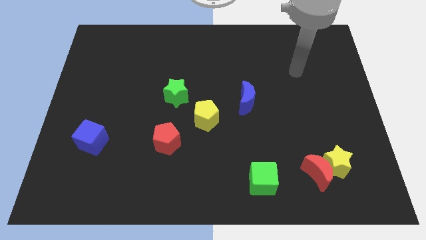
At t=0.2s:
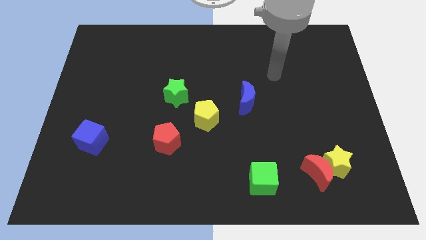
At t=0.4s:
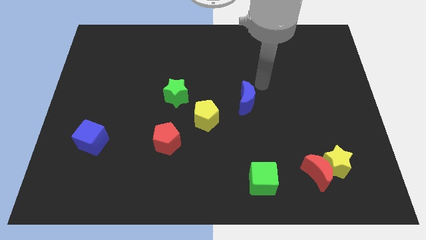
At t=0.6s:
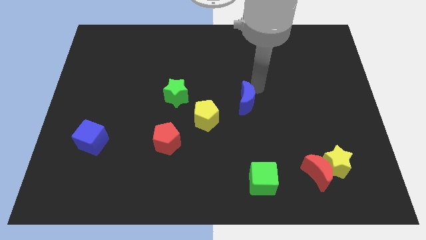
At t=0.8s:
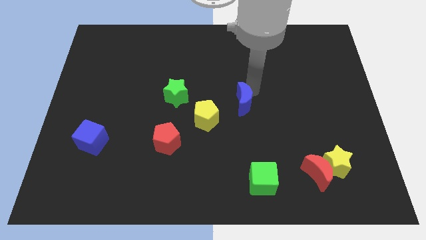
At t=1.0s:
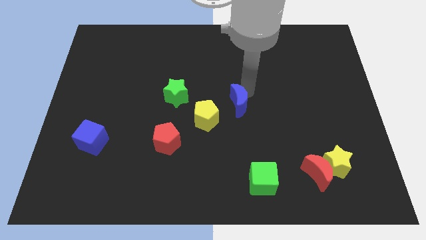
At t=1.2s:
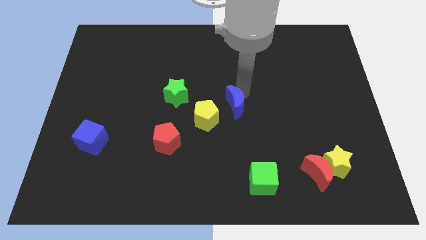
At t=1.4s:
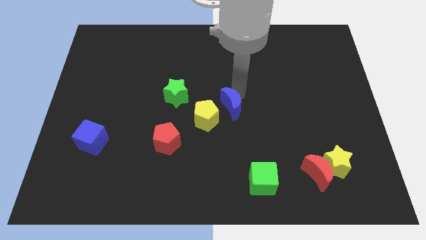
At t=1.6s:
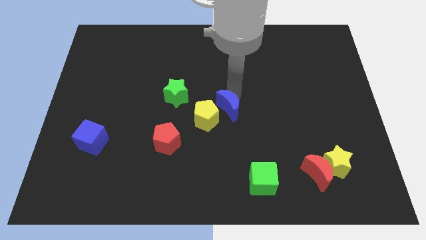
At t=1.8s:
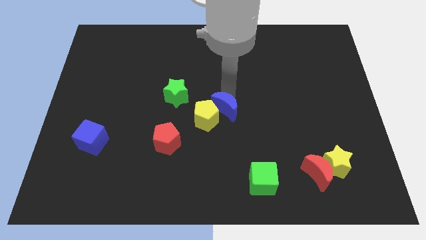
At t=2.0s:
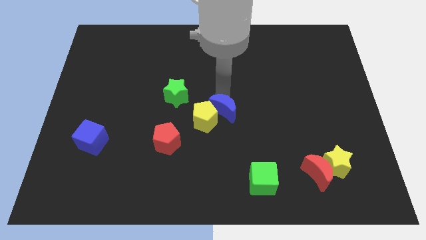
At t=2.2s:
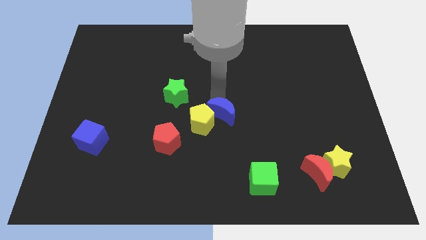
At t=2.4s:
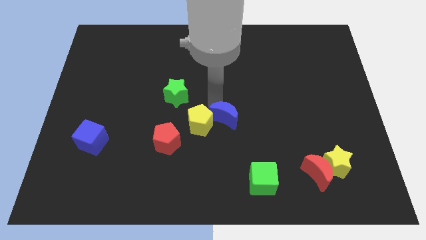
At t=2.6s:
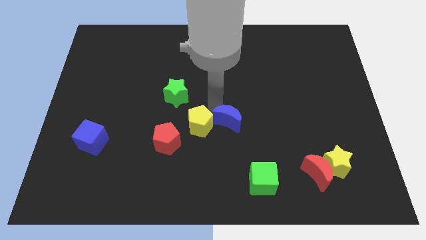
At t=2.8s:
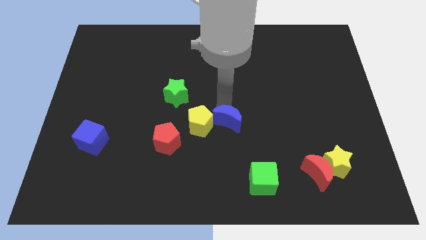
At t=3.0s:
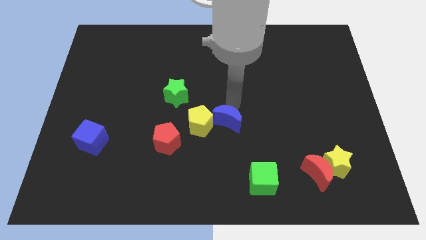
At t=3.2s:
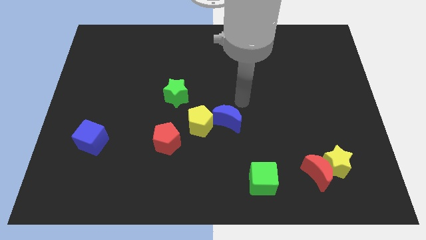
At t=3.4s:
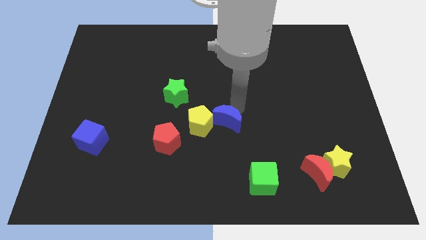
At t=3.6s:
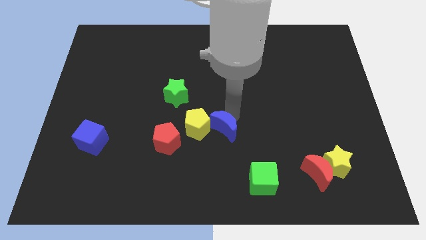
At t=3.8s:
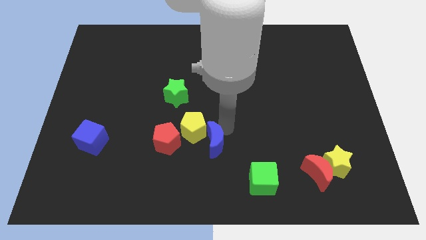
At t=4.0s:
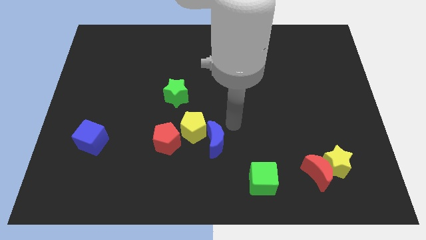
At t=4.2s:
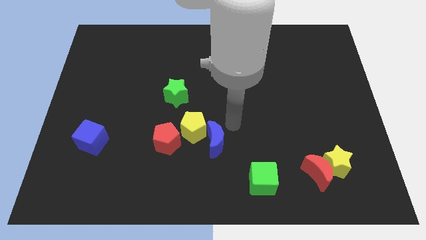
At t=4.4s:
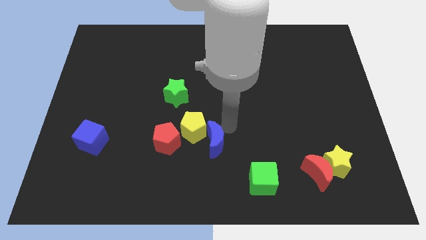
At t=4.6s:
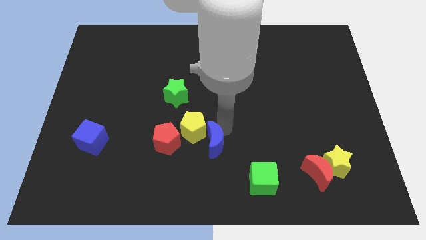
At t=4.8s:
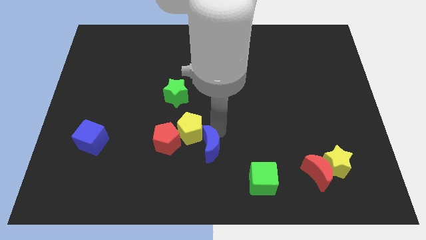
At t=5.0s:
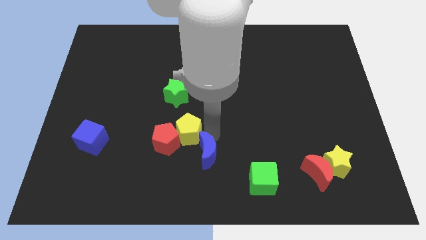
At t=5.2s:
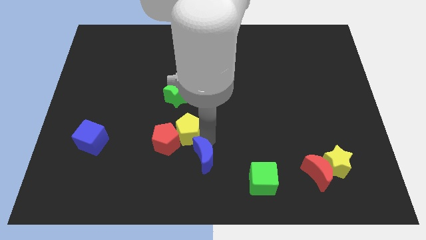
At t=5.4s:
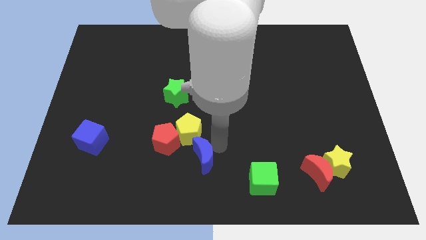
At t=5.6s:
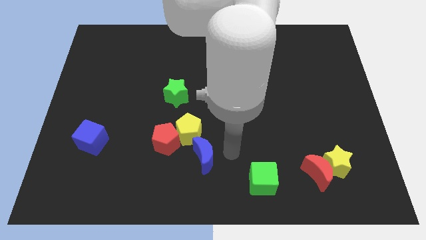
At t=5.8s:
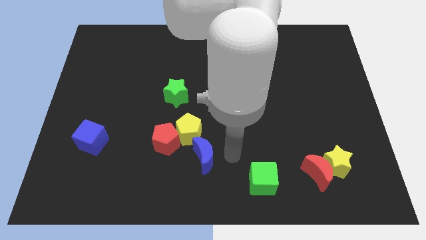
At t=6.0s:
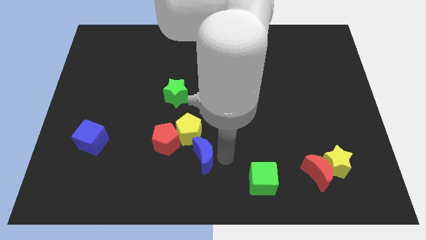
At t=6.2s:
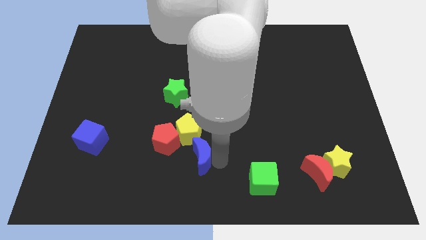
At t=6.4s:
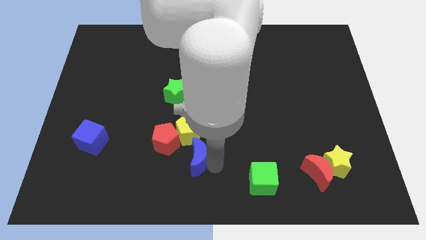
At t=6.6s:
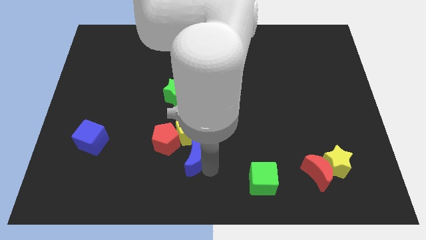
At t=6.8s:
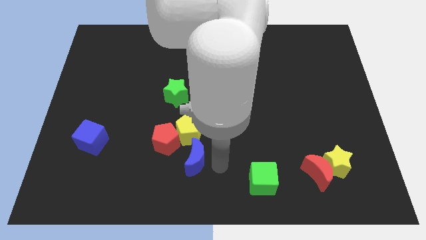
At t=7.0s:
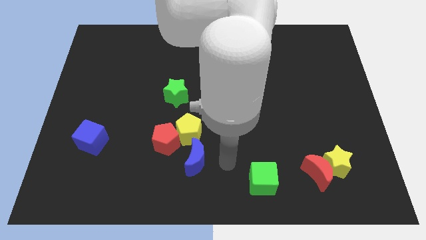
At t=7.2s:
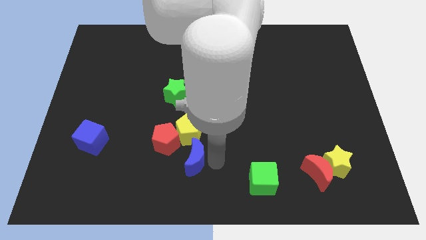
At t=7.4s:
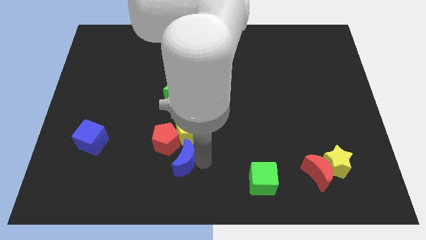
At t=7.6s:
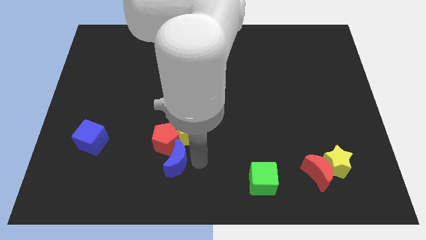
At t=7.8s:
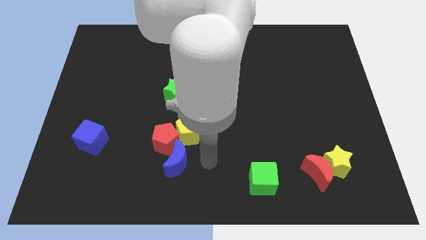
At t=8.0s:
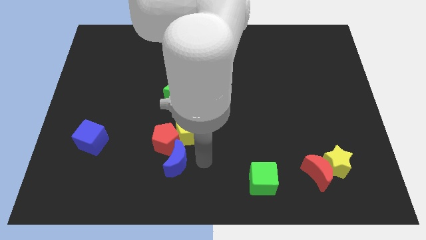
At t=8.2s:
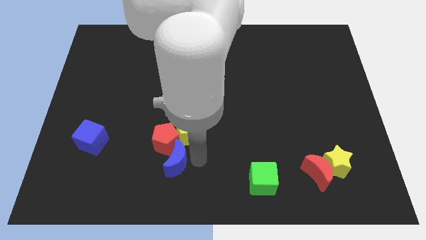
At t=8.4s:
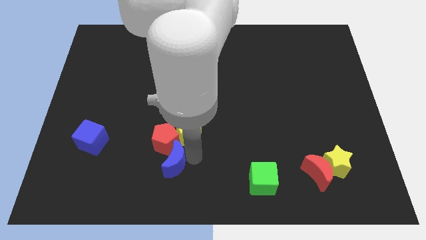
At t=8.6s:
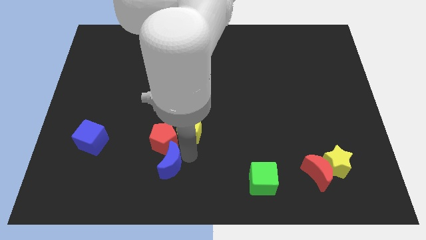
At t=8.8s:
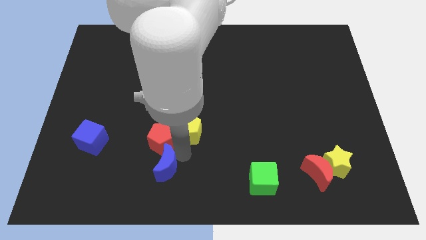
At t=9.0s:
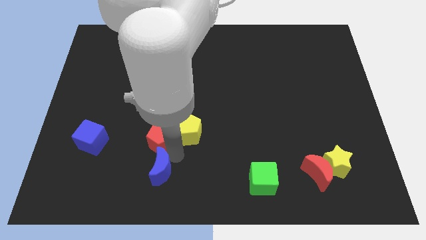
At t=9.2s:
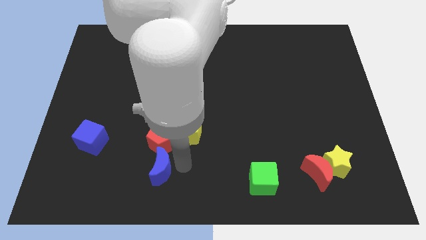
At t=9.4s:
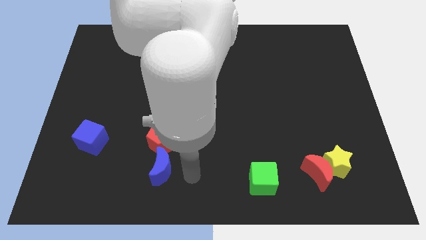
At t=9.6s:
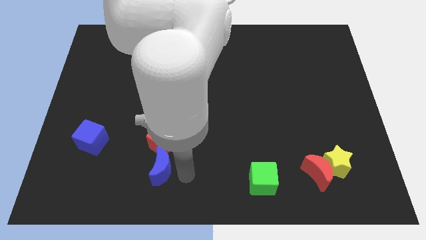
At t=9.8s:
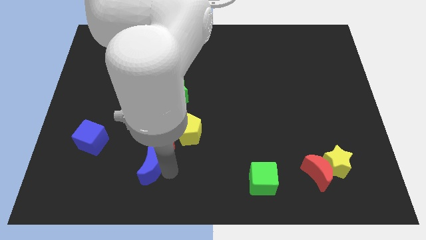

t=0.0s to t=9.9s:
put the blue moon diagonally down and to the left of the red pentagon

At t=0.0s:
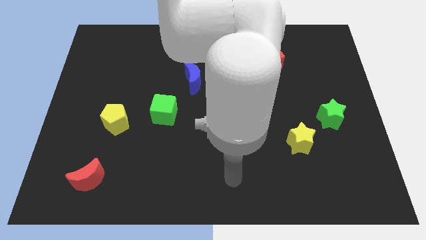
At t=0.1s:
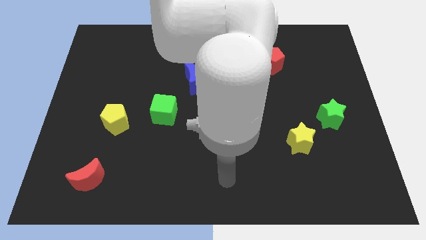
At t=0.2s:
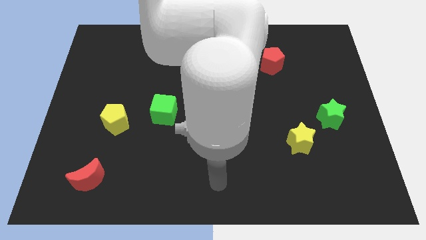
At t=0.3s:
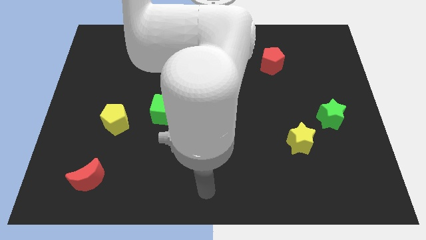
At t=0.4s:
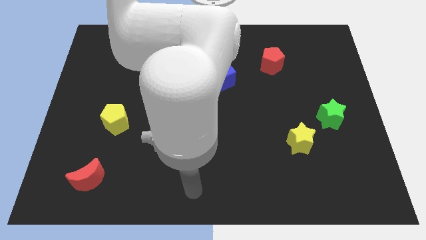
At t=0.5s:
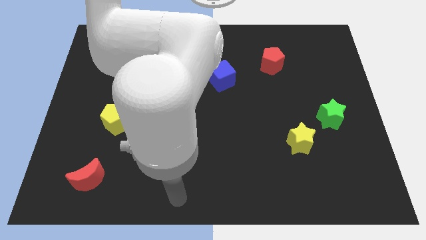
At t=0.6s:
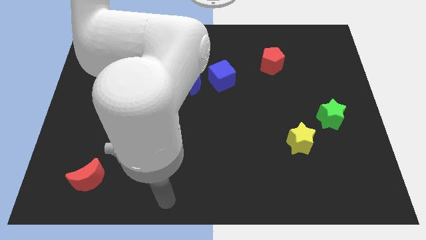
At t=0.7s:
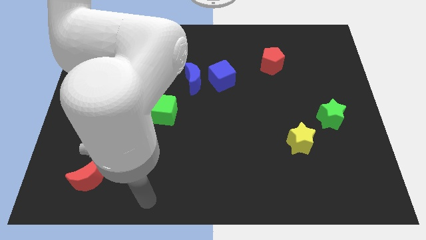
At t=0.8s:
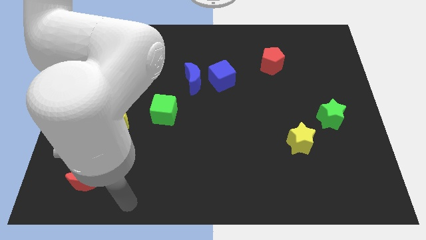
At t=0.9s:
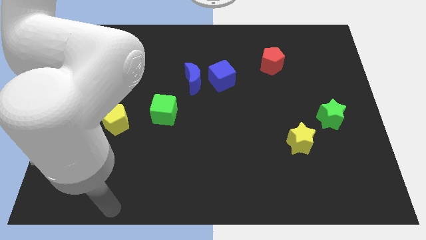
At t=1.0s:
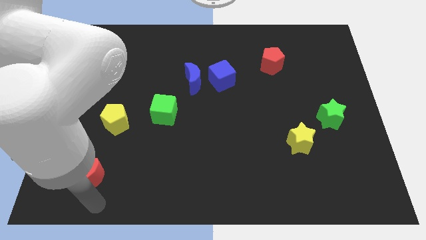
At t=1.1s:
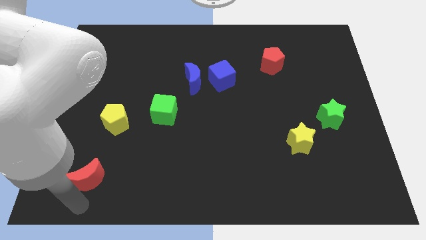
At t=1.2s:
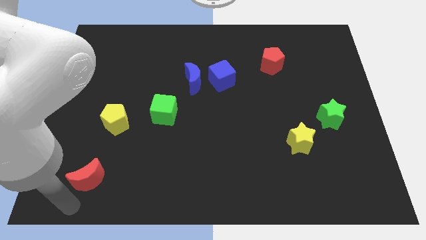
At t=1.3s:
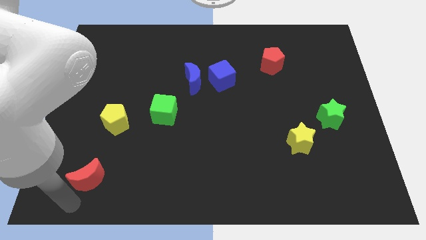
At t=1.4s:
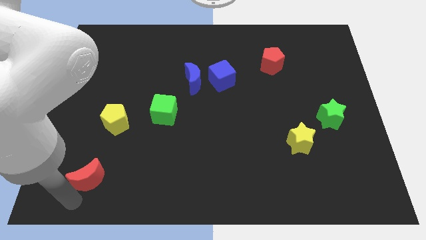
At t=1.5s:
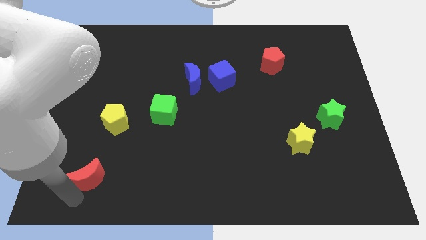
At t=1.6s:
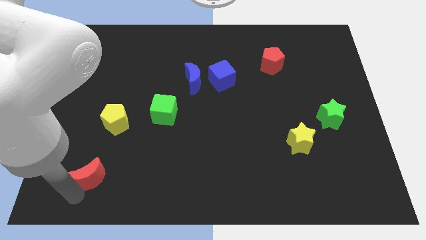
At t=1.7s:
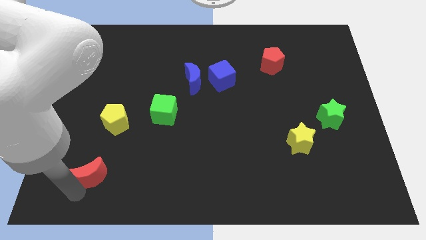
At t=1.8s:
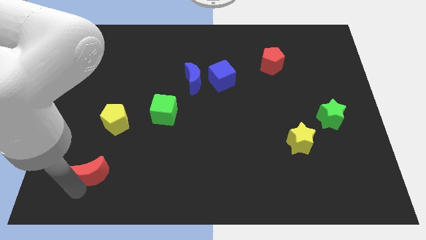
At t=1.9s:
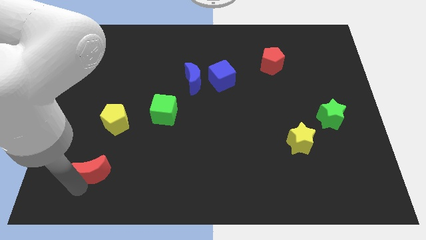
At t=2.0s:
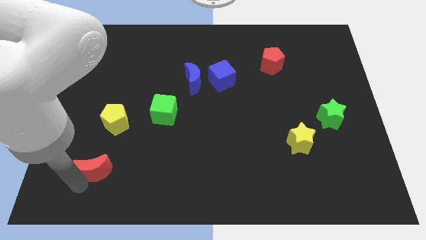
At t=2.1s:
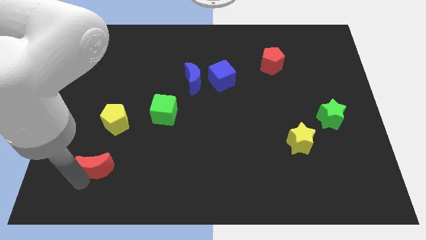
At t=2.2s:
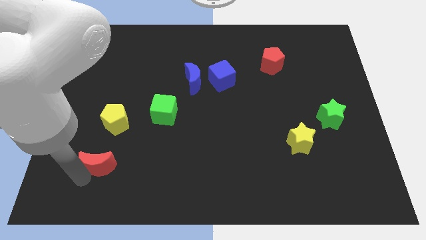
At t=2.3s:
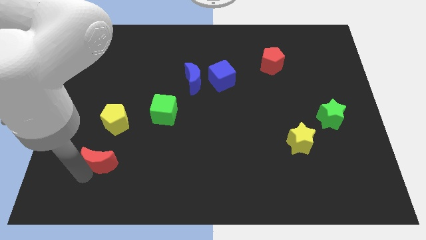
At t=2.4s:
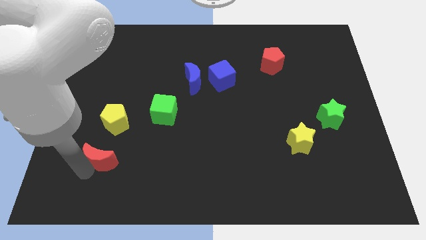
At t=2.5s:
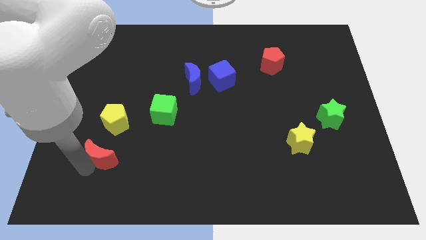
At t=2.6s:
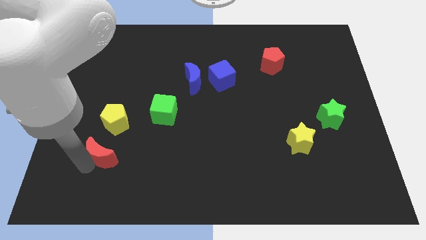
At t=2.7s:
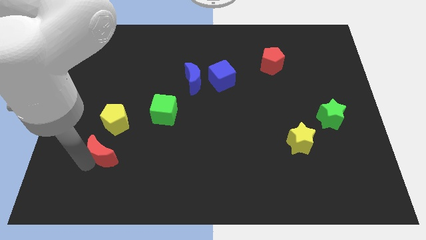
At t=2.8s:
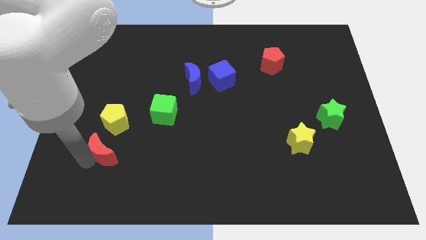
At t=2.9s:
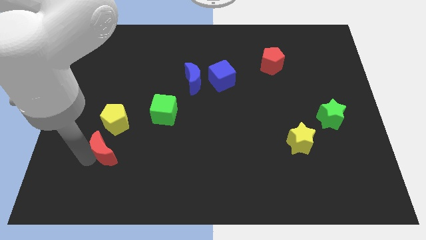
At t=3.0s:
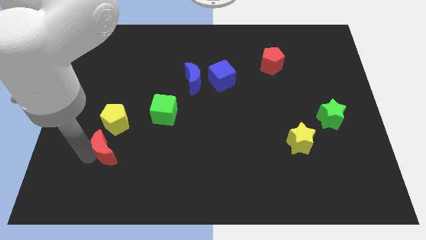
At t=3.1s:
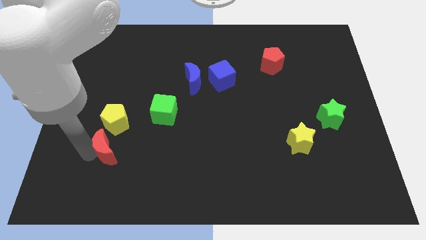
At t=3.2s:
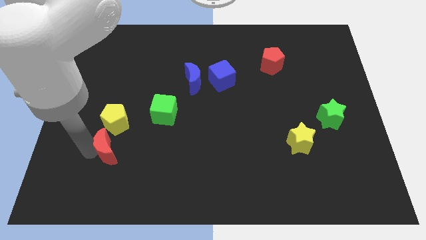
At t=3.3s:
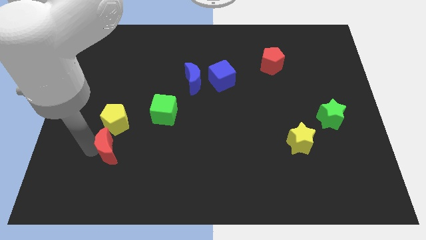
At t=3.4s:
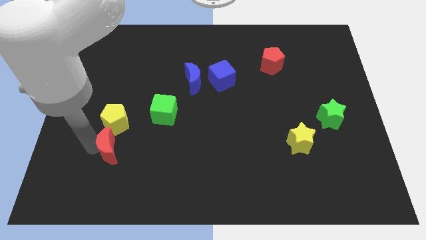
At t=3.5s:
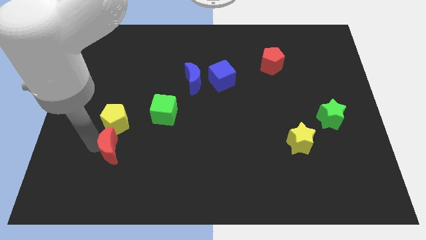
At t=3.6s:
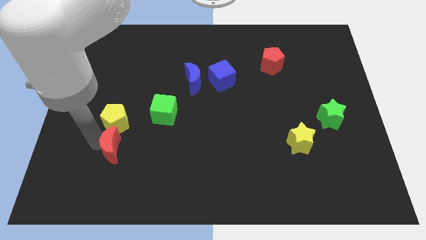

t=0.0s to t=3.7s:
push the red moon diagonally down and to the right of the yellow pentagon
